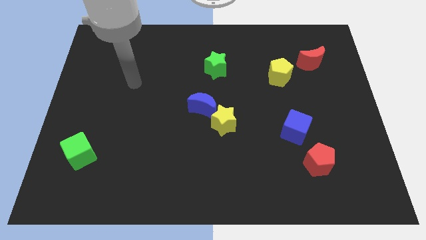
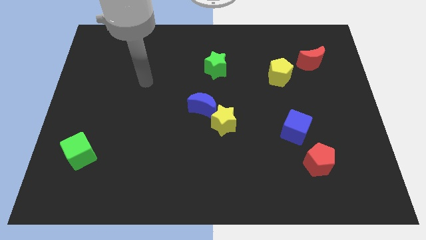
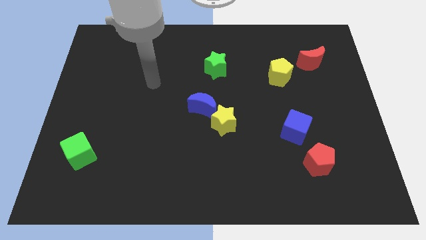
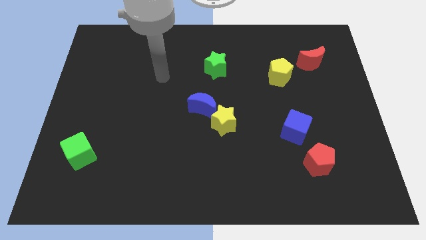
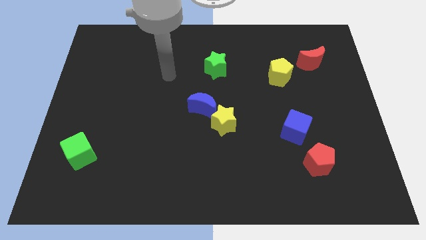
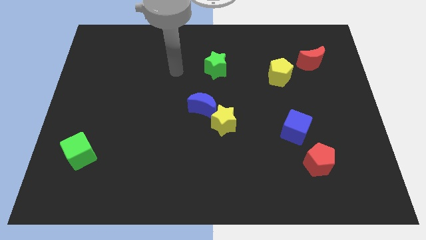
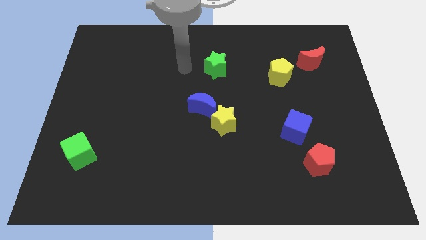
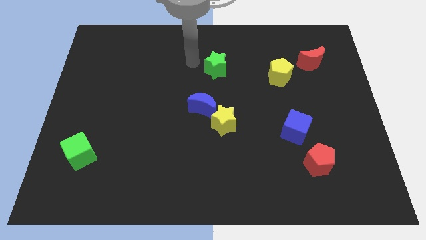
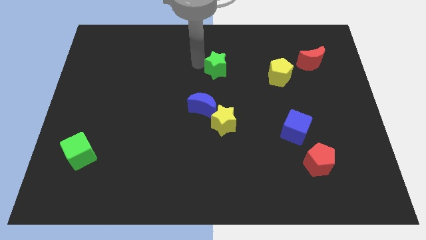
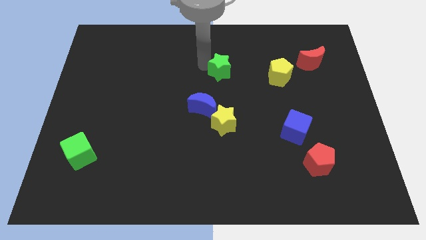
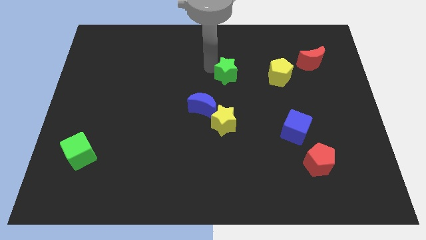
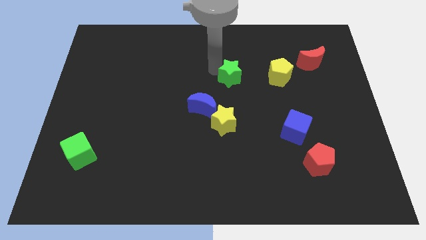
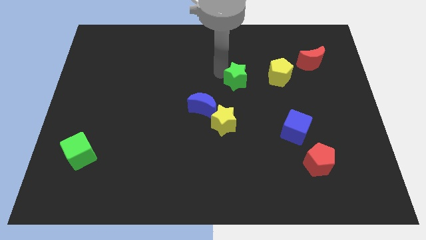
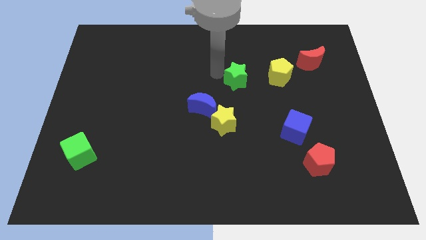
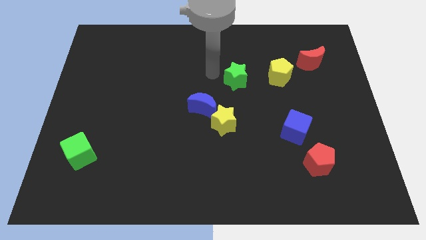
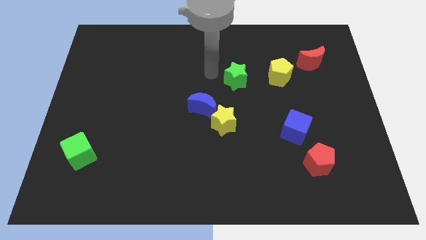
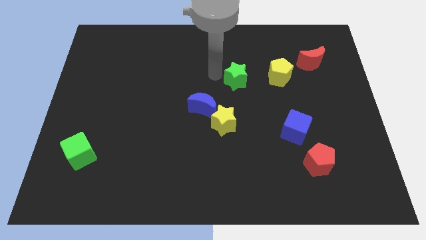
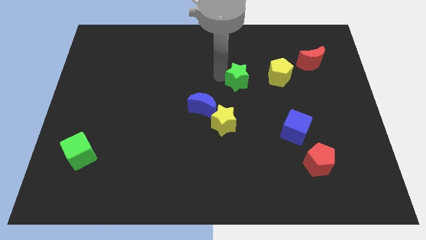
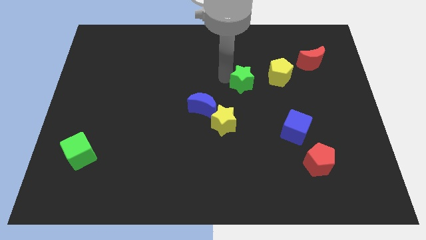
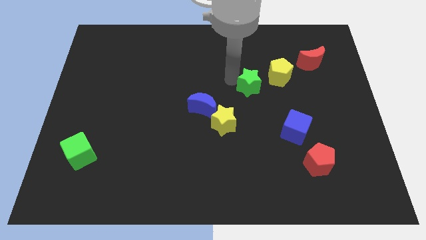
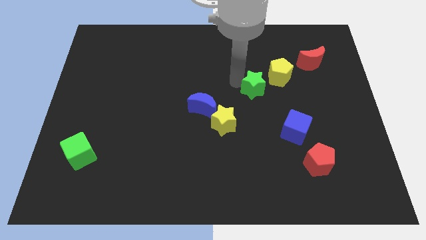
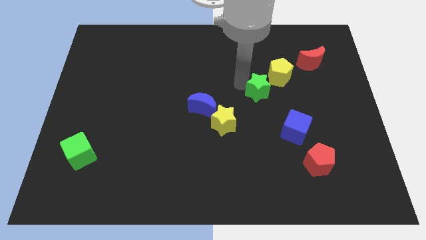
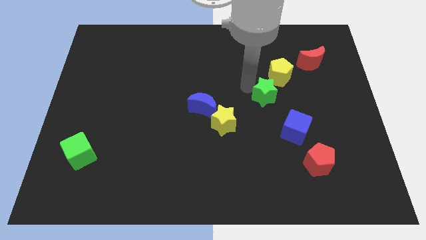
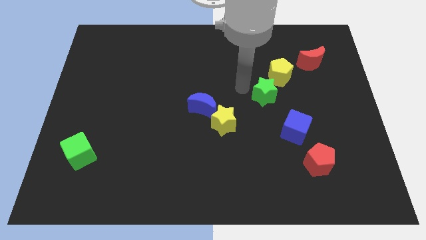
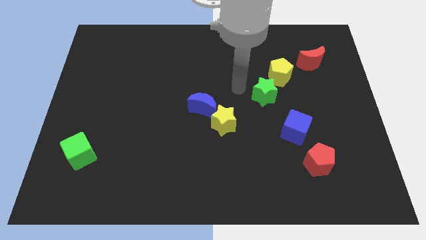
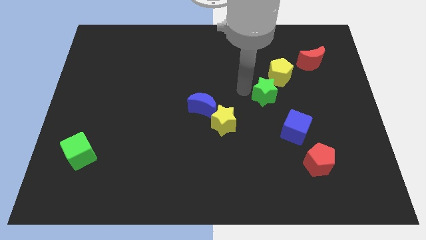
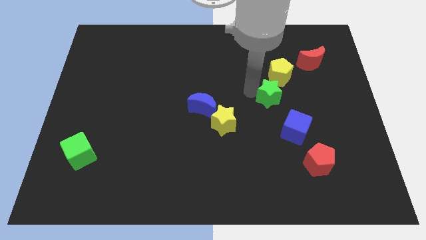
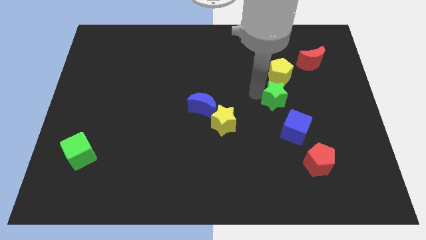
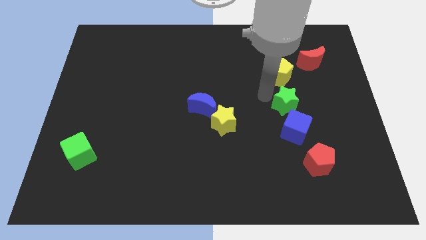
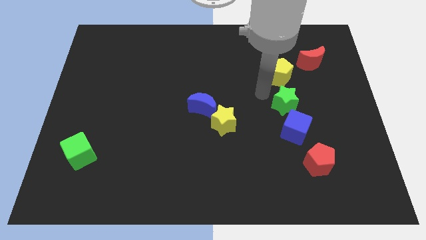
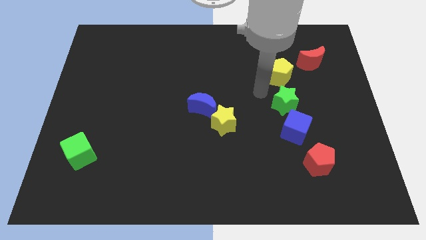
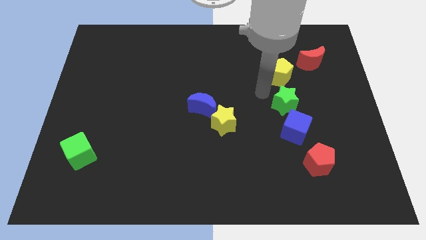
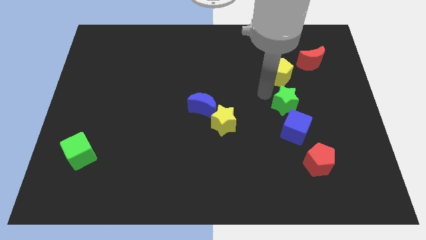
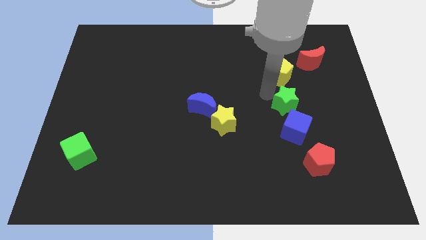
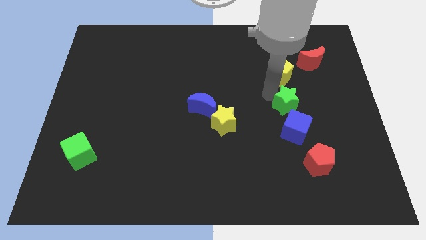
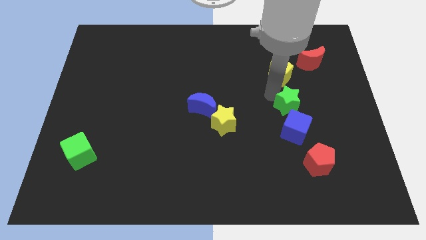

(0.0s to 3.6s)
push the green star diagonally downwards and to the right

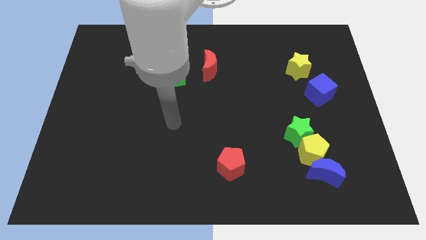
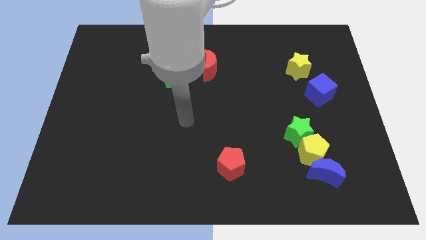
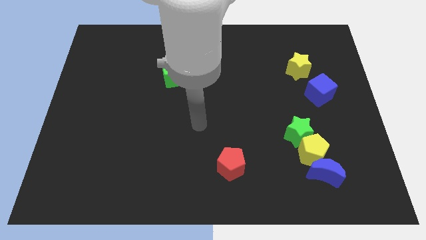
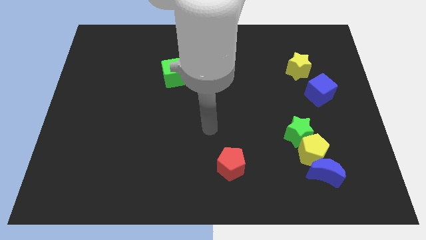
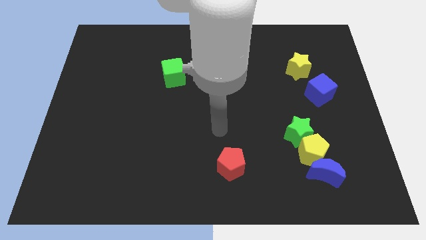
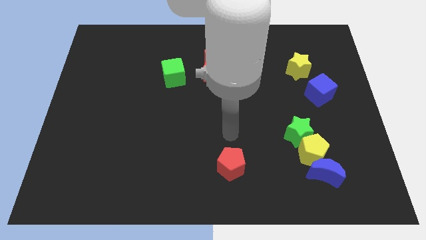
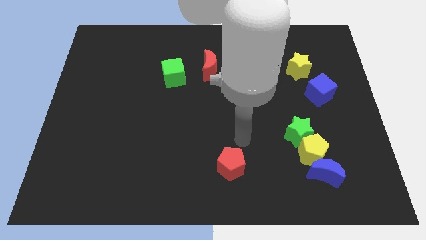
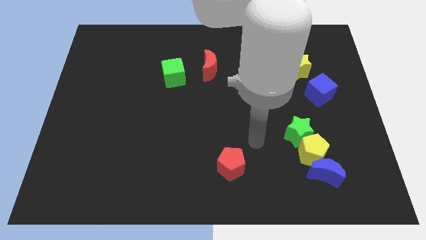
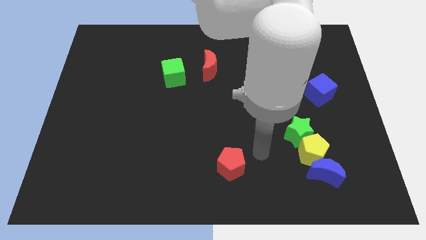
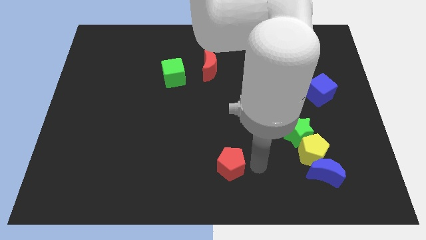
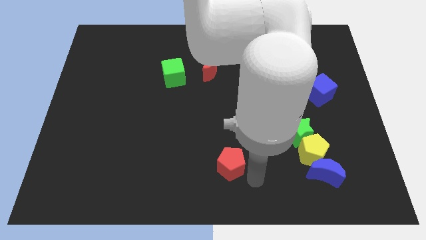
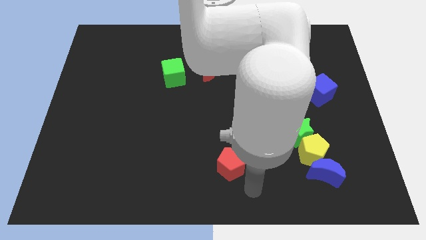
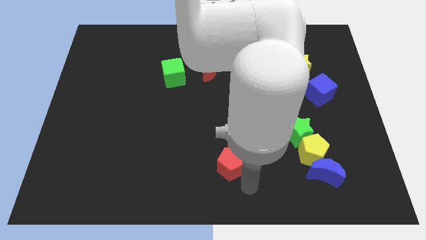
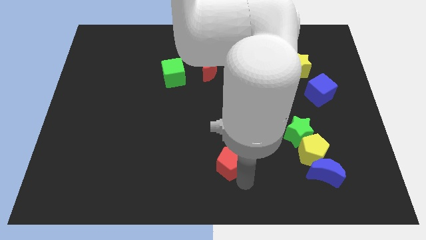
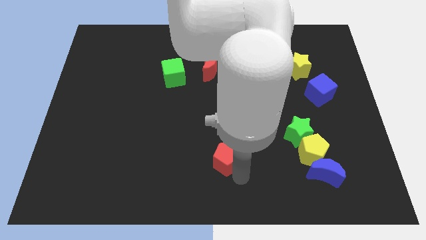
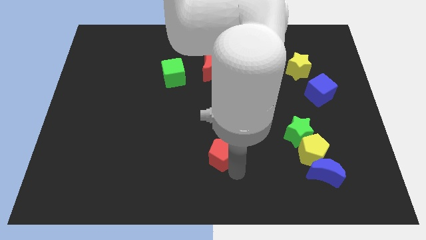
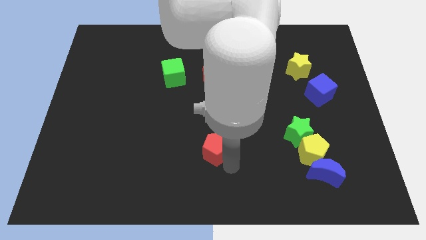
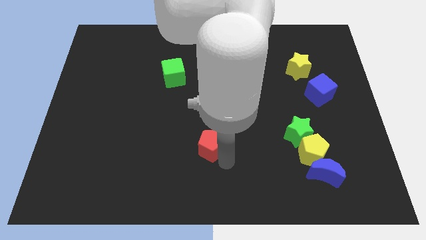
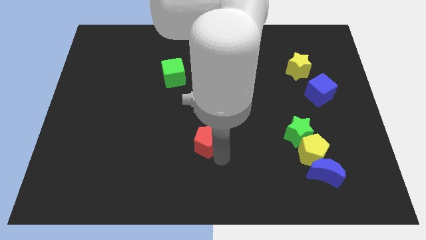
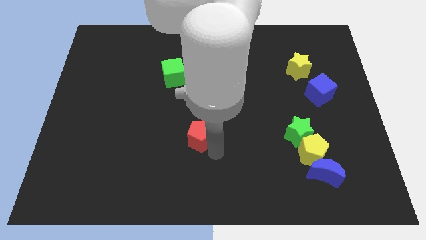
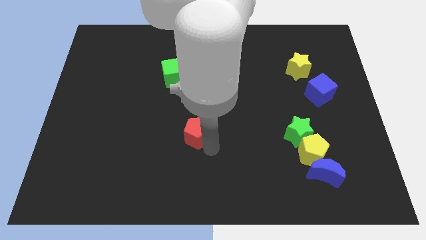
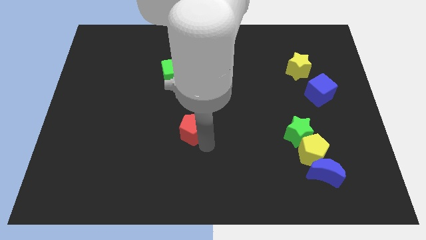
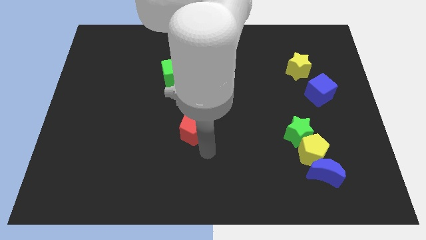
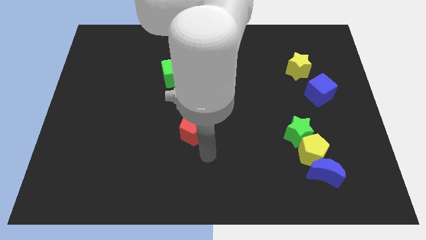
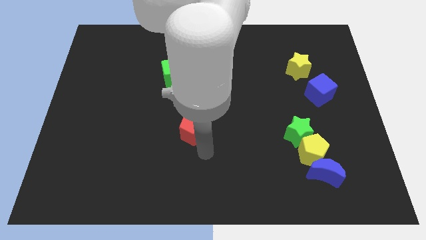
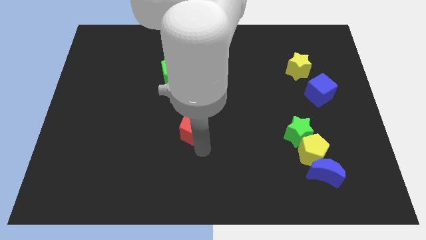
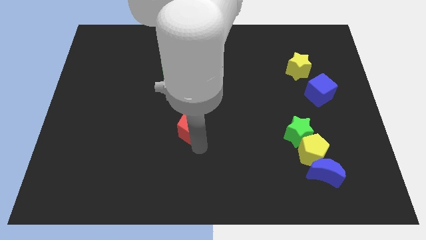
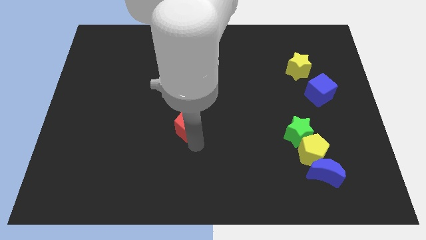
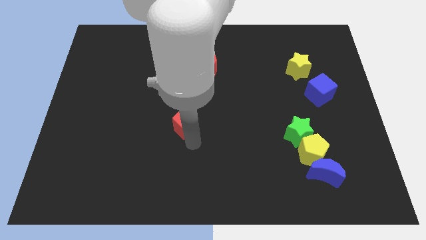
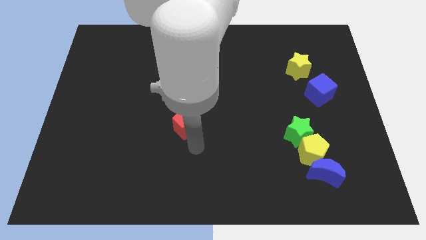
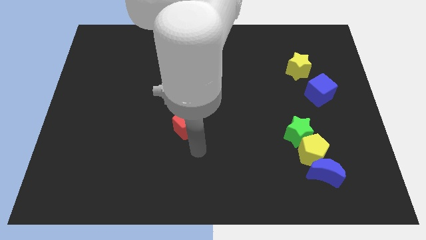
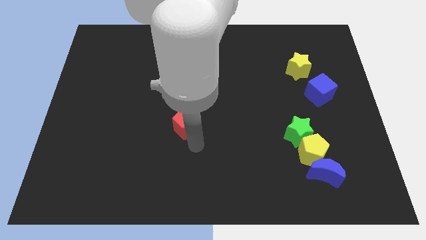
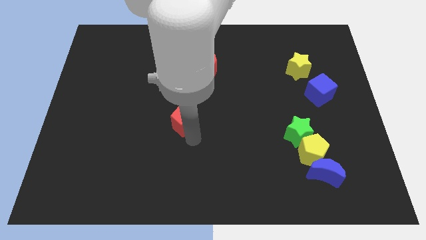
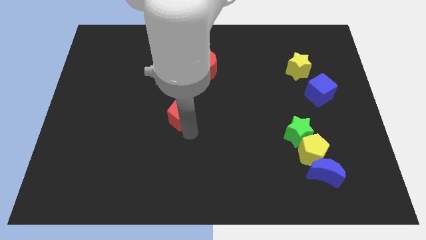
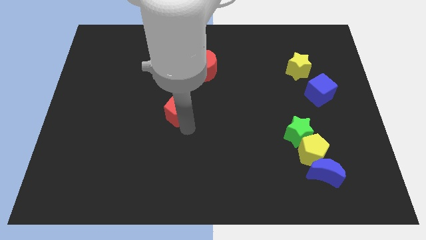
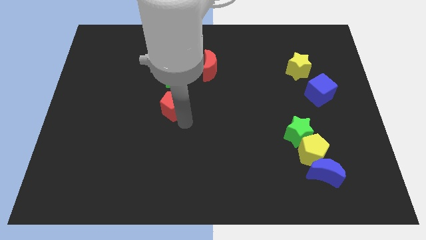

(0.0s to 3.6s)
push the red pentagon up and left diagonally

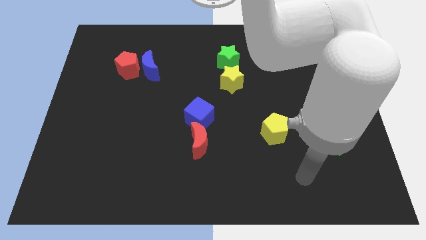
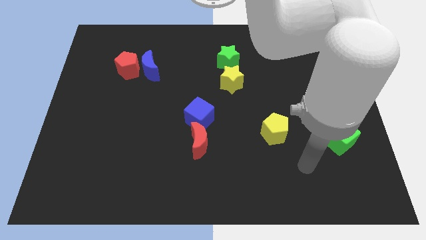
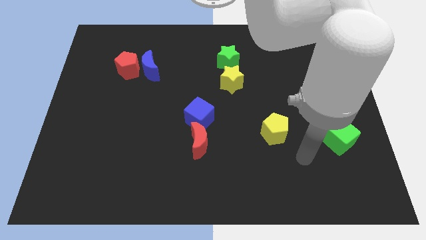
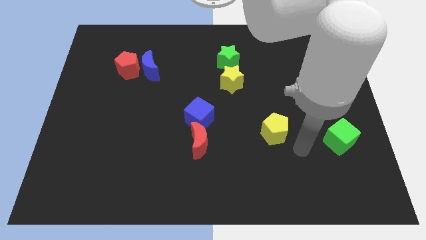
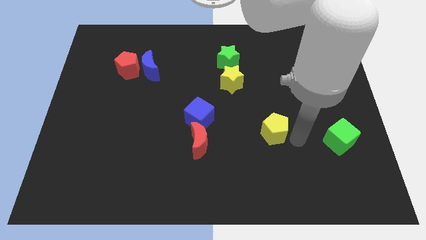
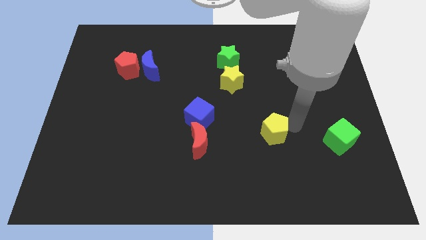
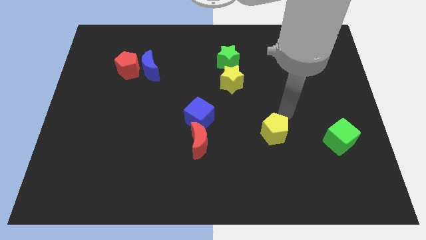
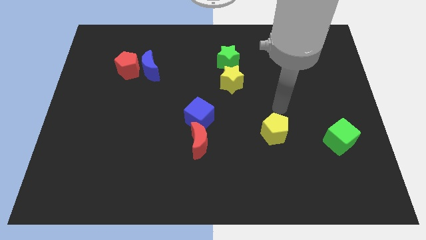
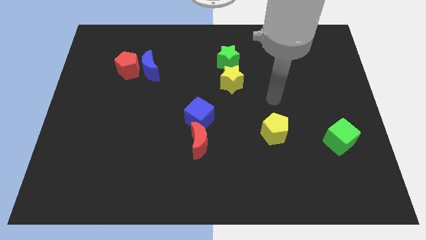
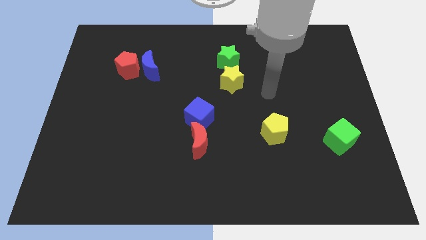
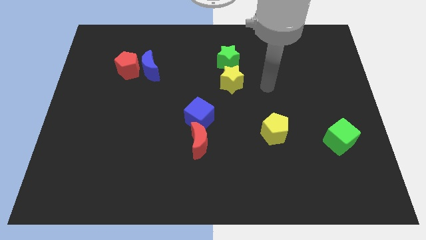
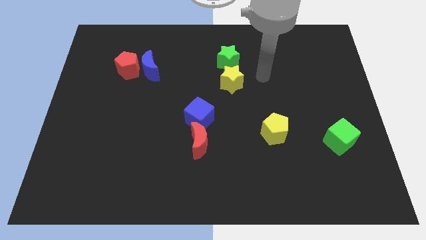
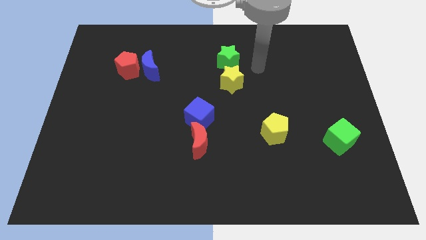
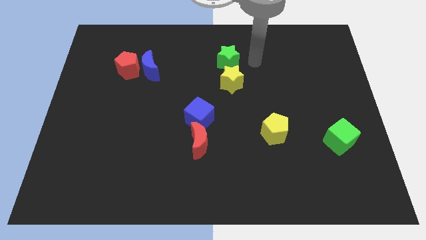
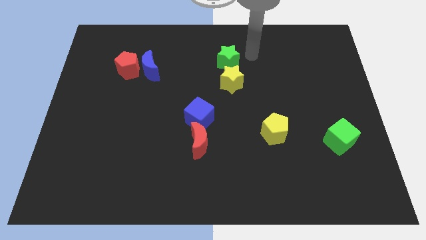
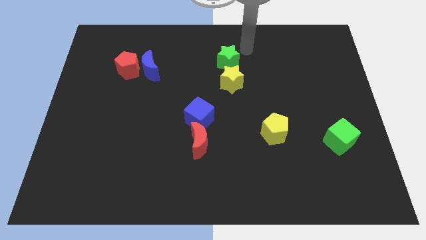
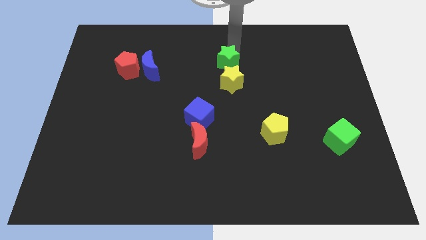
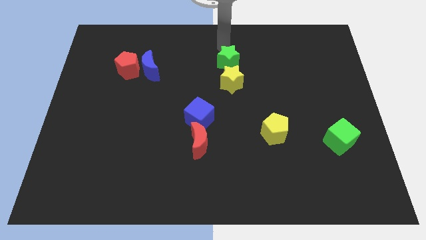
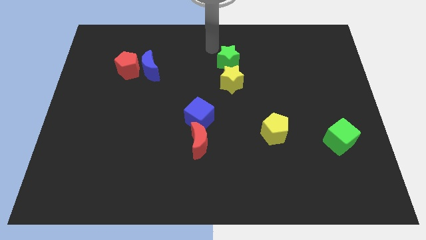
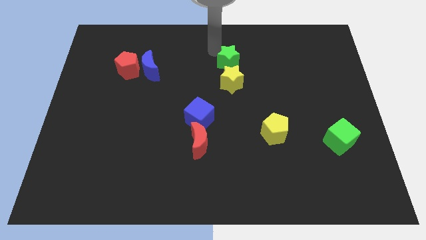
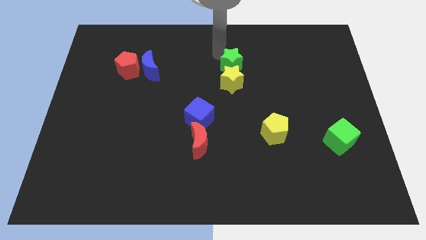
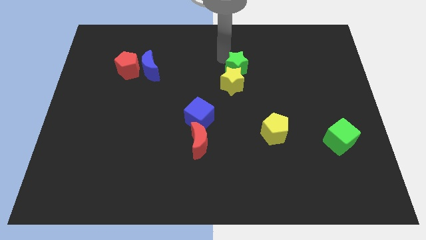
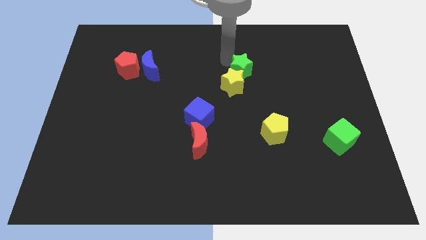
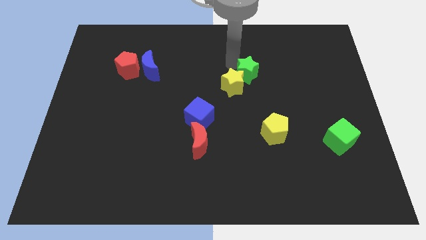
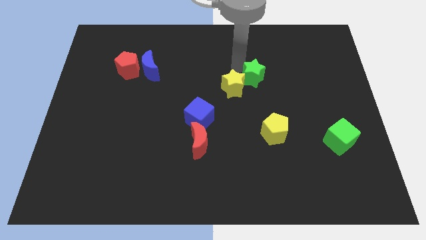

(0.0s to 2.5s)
slightly move the green star diagonally downwards and right
